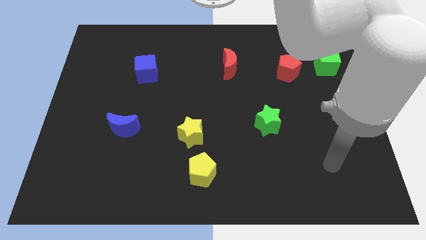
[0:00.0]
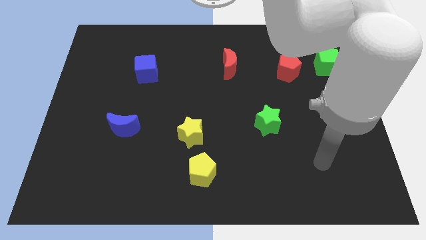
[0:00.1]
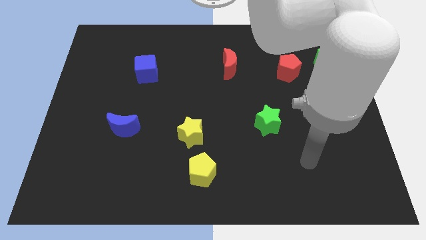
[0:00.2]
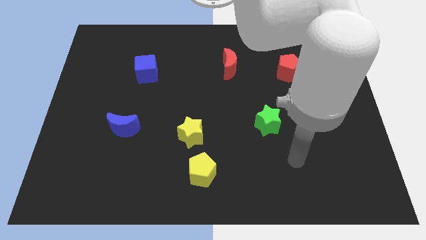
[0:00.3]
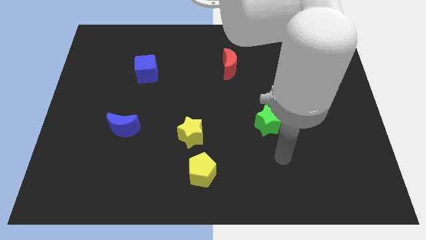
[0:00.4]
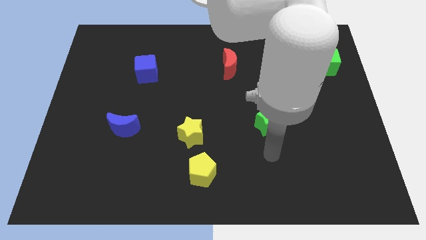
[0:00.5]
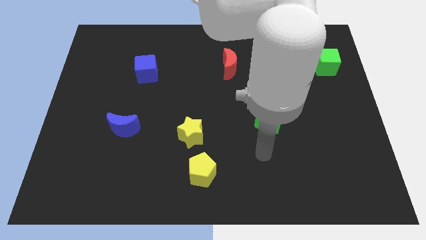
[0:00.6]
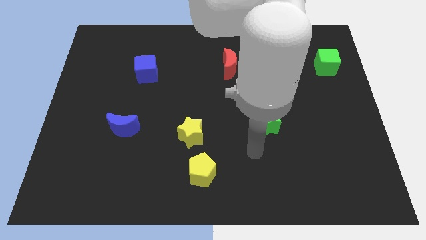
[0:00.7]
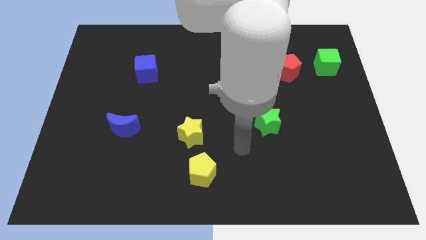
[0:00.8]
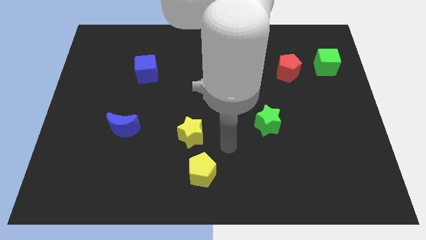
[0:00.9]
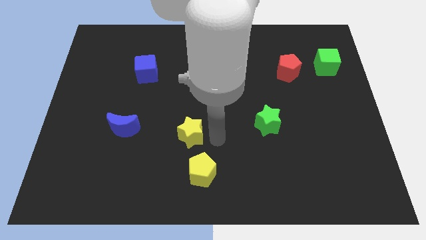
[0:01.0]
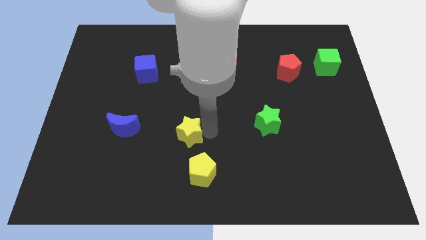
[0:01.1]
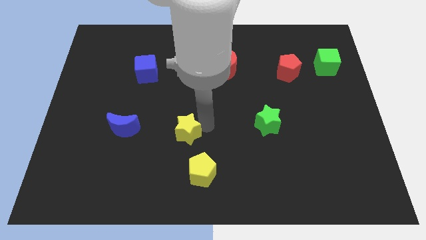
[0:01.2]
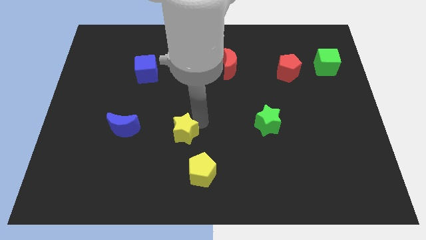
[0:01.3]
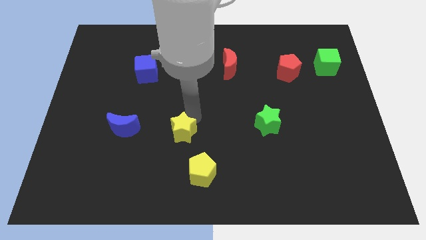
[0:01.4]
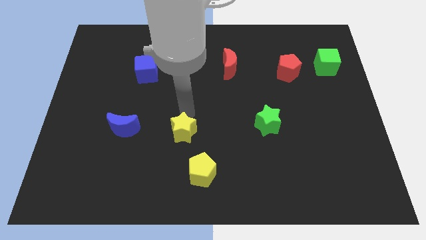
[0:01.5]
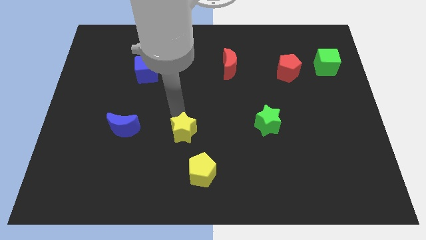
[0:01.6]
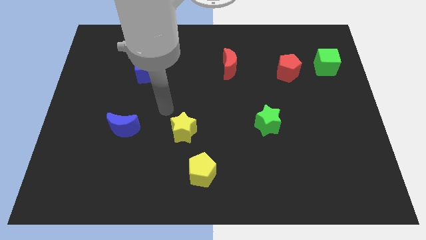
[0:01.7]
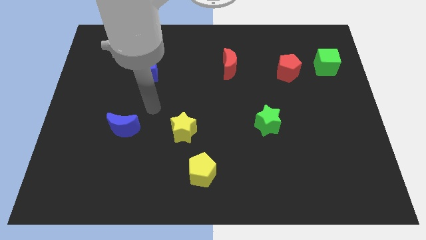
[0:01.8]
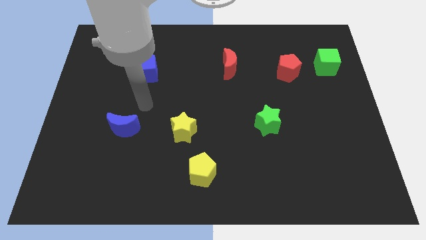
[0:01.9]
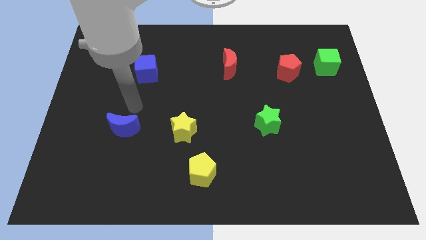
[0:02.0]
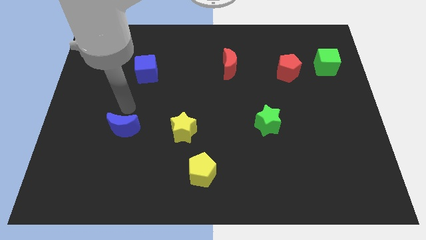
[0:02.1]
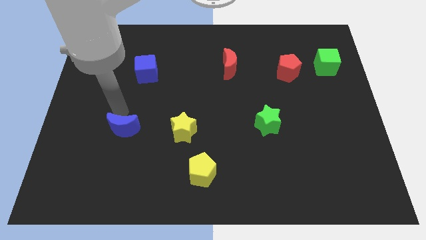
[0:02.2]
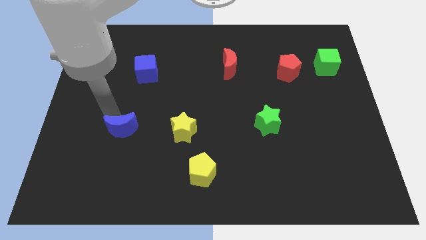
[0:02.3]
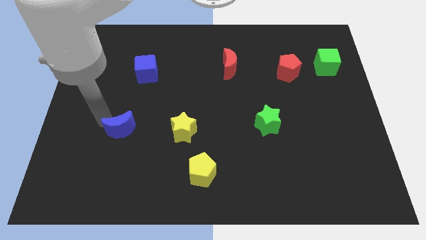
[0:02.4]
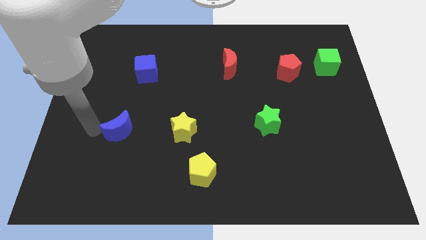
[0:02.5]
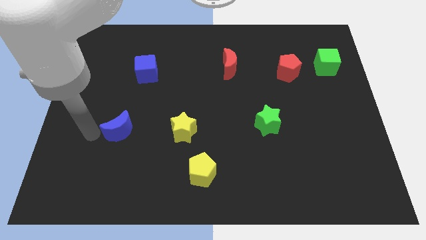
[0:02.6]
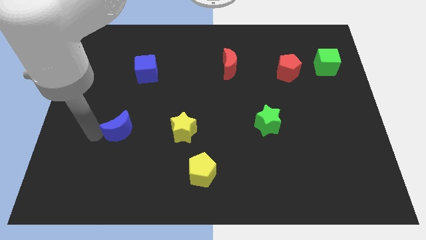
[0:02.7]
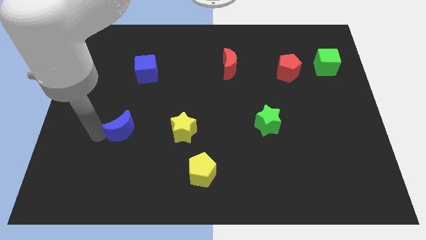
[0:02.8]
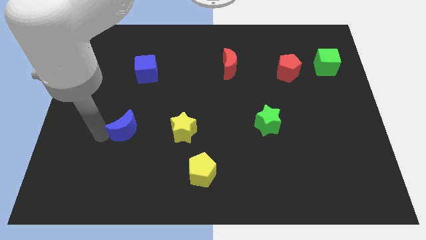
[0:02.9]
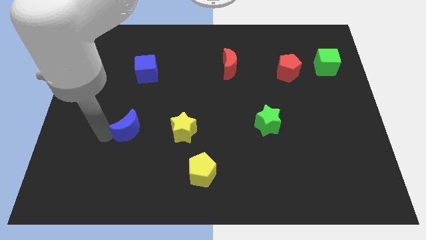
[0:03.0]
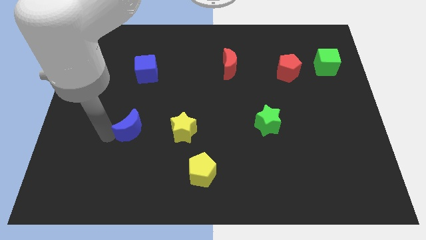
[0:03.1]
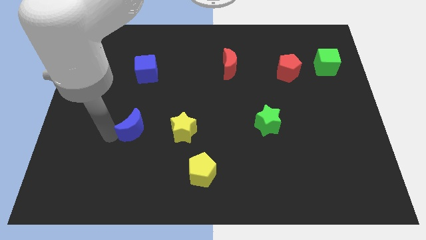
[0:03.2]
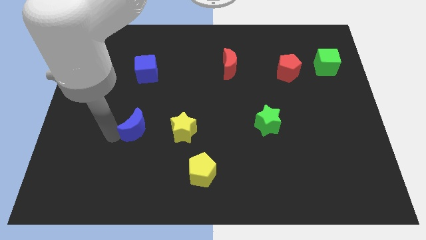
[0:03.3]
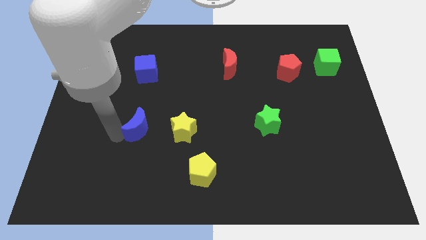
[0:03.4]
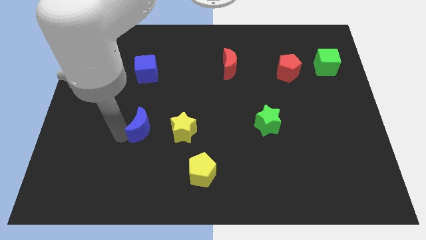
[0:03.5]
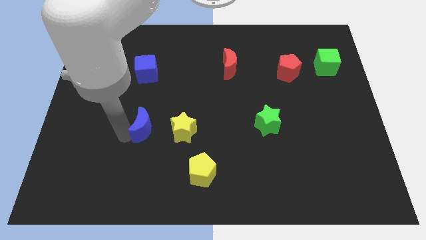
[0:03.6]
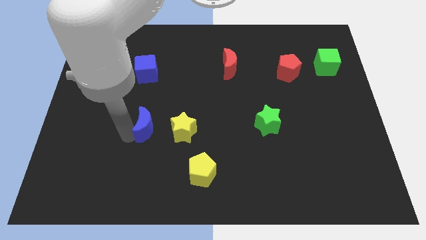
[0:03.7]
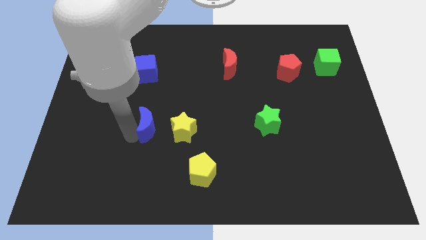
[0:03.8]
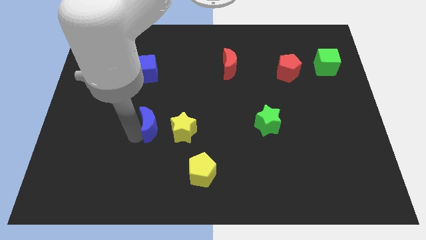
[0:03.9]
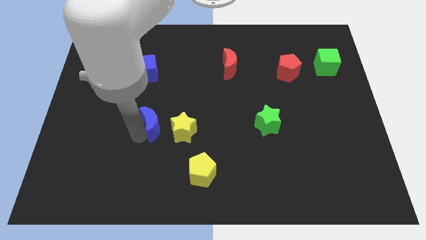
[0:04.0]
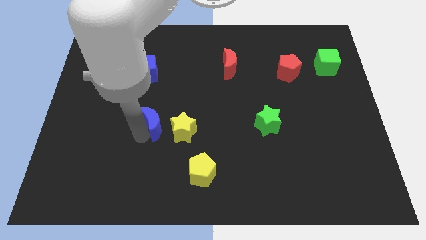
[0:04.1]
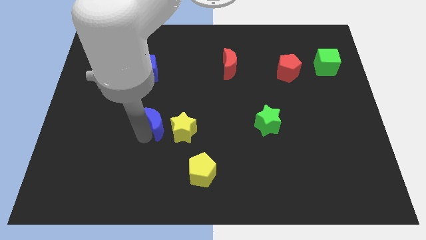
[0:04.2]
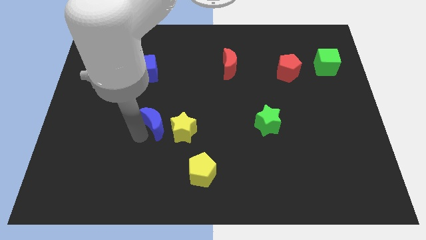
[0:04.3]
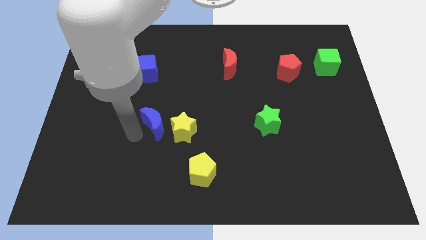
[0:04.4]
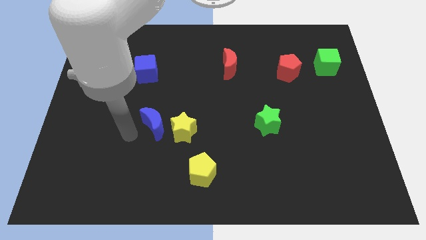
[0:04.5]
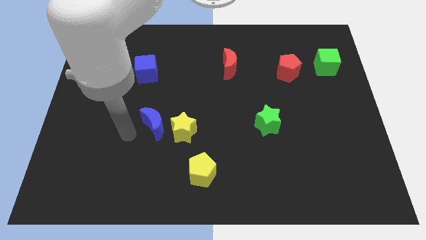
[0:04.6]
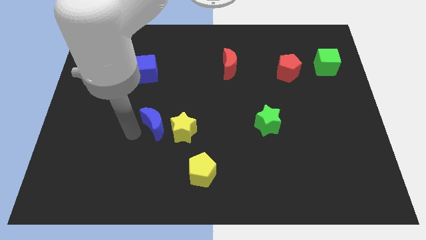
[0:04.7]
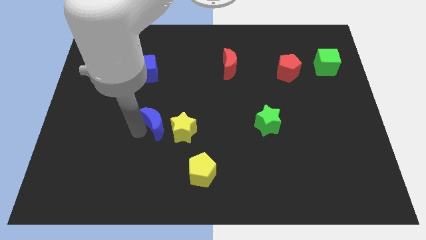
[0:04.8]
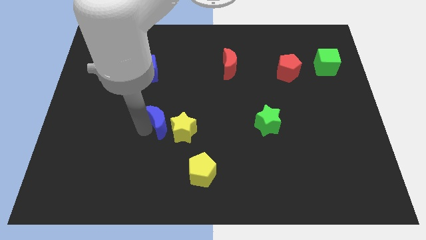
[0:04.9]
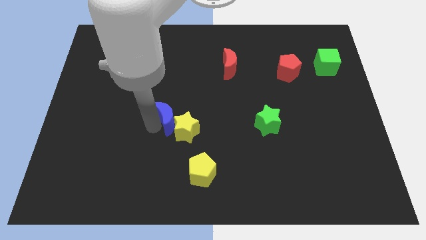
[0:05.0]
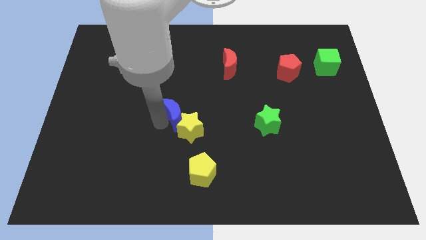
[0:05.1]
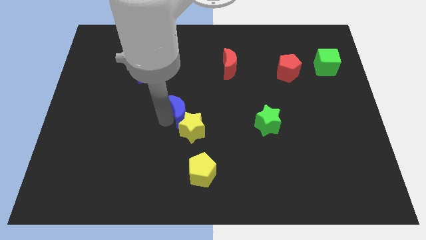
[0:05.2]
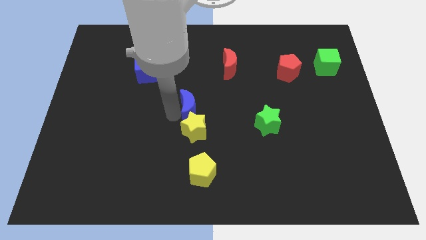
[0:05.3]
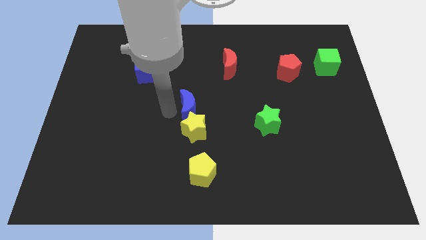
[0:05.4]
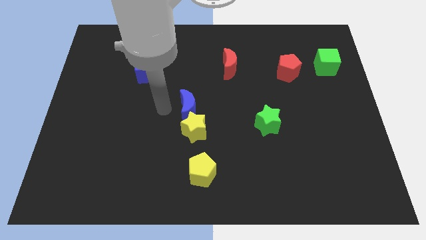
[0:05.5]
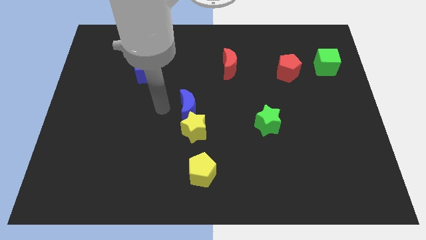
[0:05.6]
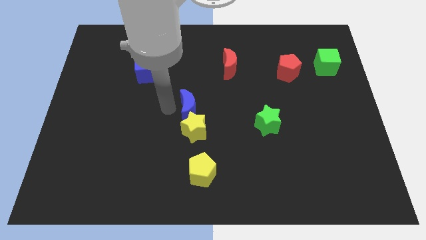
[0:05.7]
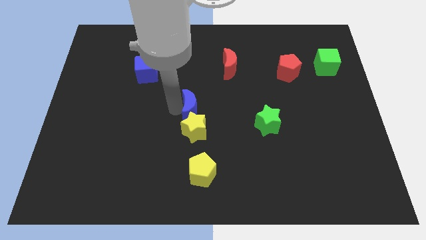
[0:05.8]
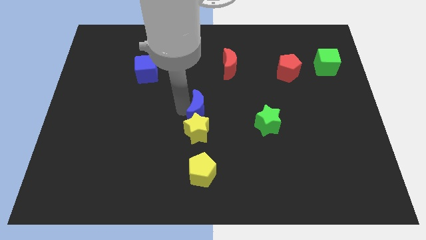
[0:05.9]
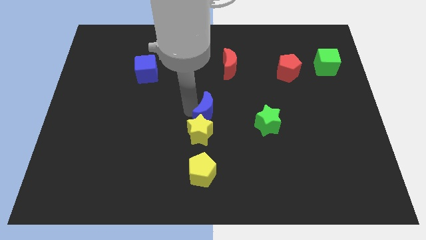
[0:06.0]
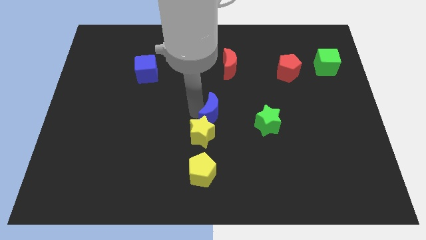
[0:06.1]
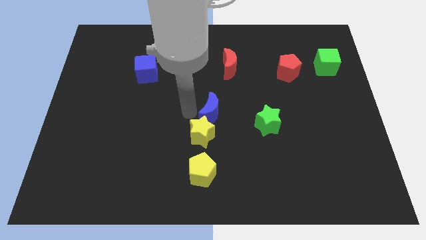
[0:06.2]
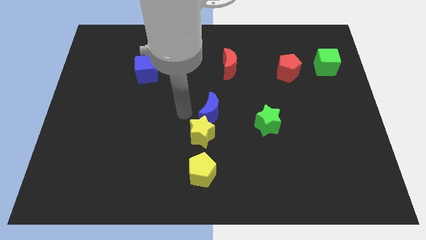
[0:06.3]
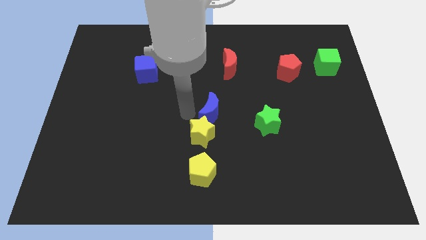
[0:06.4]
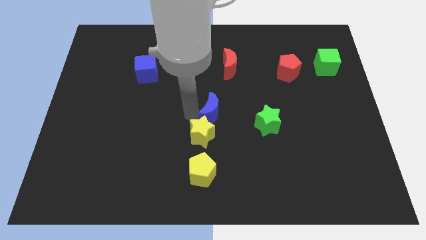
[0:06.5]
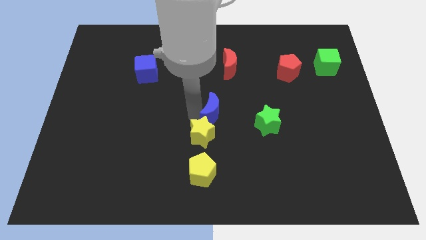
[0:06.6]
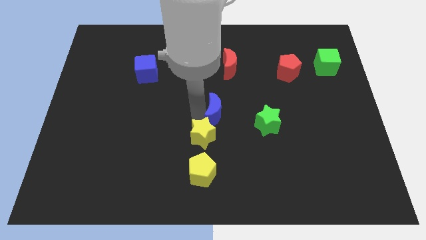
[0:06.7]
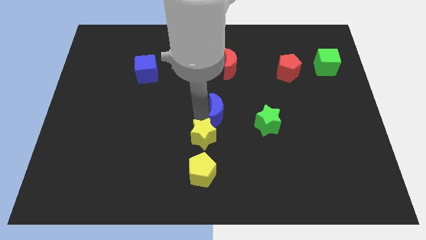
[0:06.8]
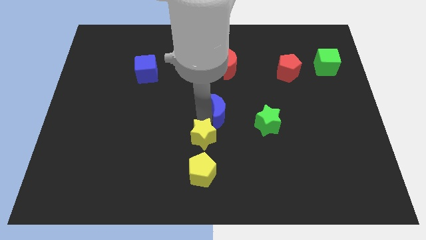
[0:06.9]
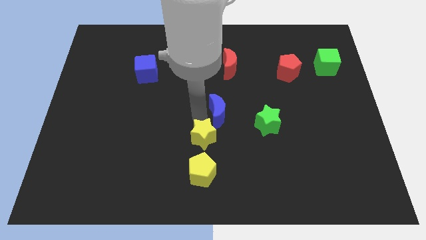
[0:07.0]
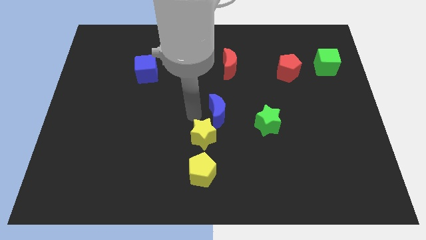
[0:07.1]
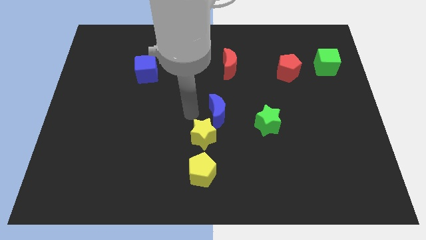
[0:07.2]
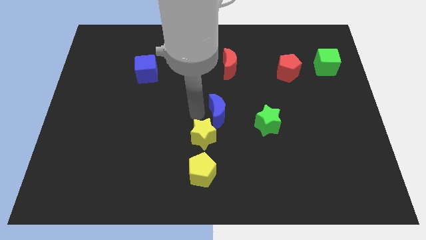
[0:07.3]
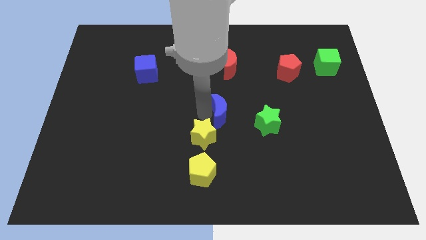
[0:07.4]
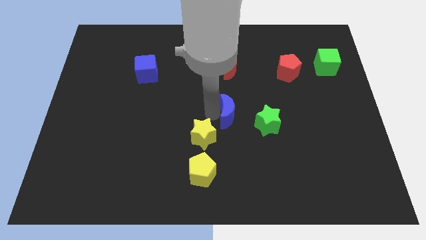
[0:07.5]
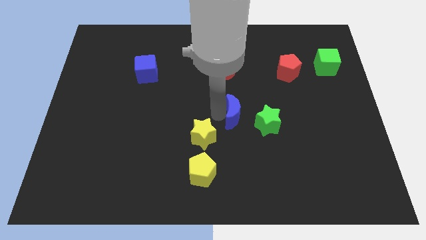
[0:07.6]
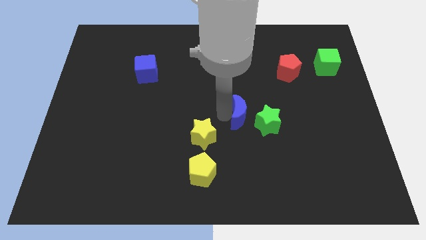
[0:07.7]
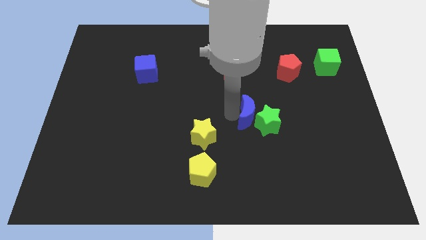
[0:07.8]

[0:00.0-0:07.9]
move the blue moon towards the green star
